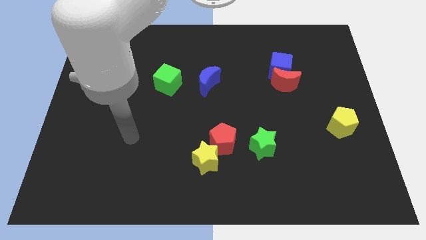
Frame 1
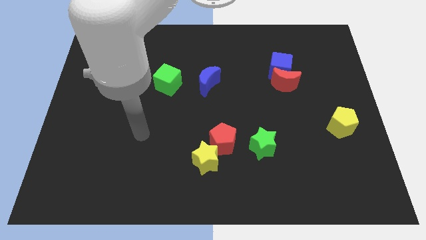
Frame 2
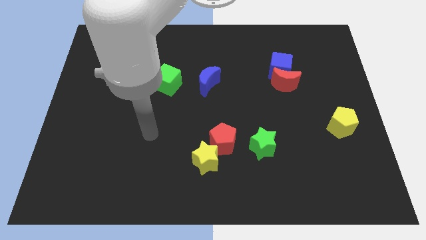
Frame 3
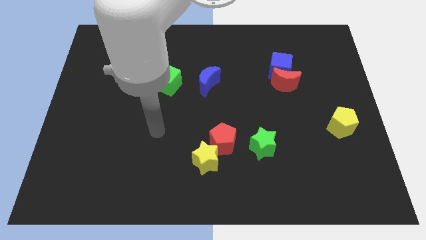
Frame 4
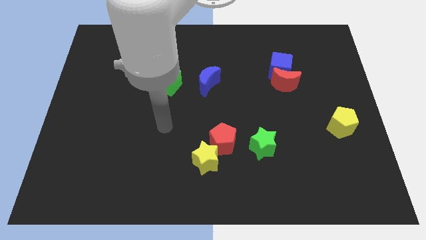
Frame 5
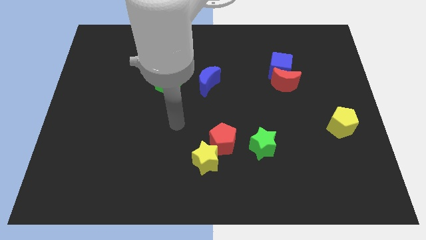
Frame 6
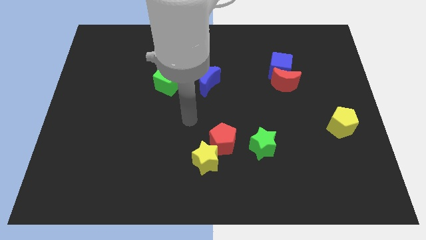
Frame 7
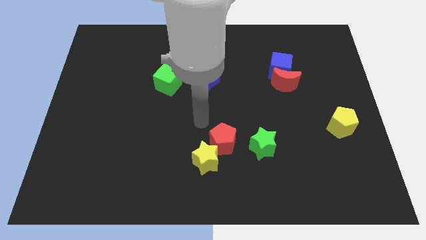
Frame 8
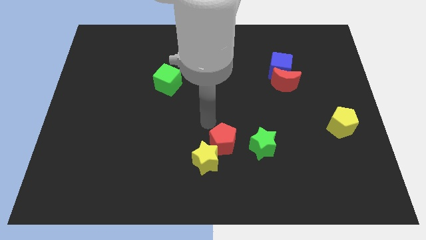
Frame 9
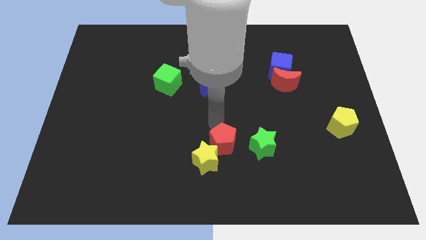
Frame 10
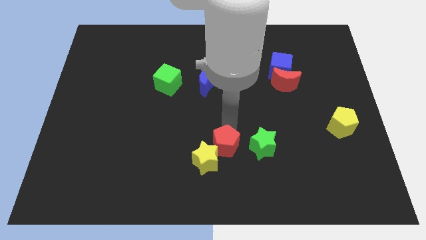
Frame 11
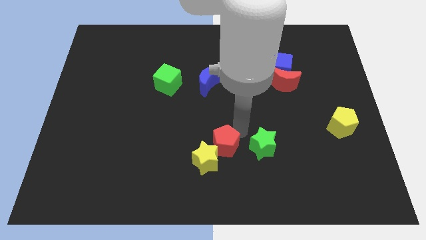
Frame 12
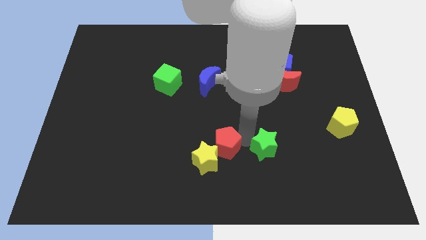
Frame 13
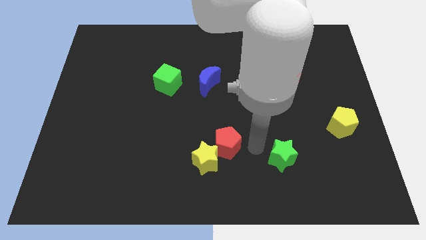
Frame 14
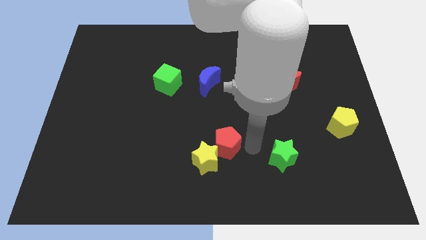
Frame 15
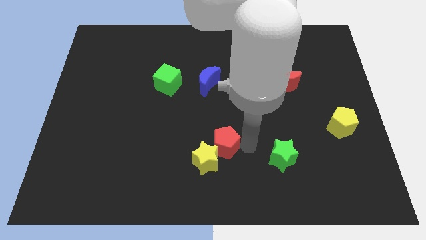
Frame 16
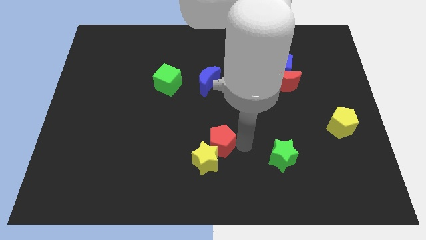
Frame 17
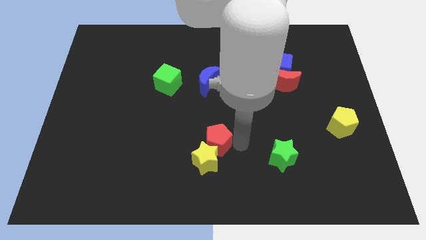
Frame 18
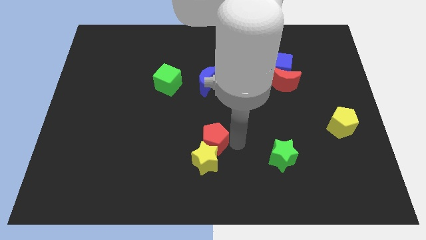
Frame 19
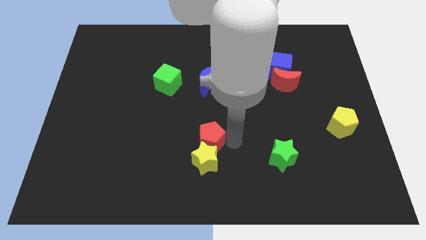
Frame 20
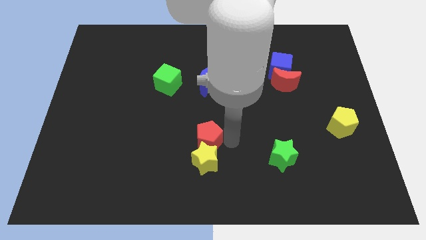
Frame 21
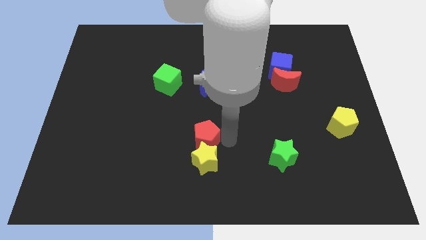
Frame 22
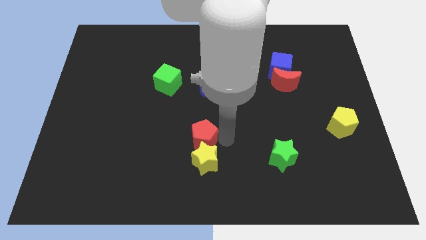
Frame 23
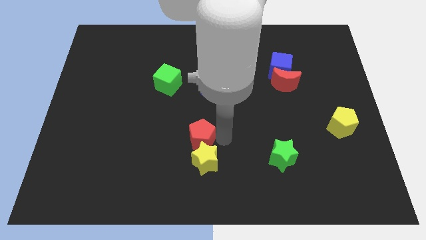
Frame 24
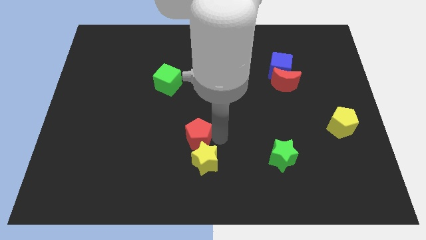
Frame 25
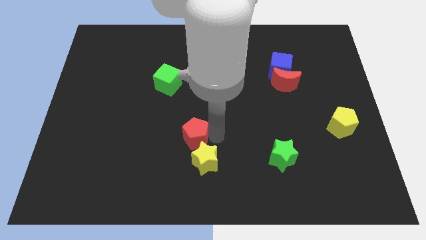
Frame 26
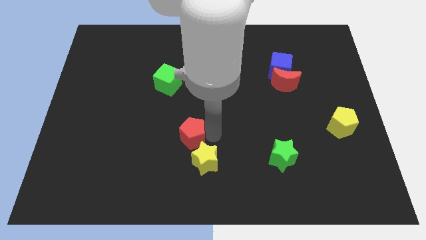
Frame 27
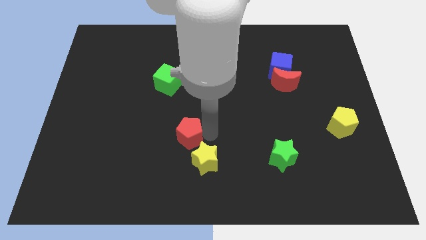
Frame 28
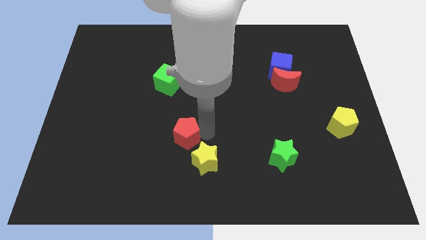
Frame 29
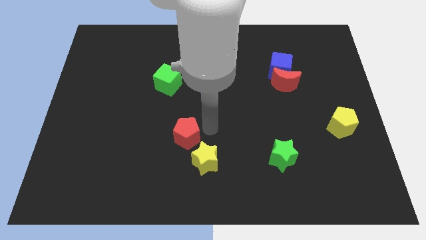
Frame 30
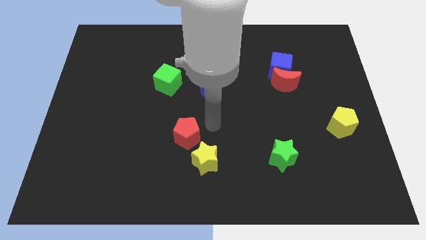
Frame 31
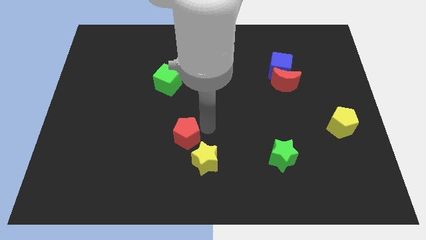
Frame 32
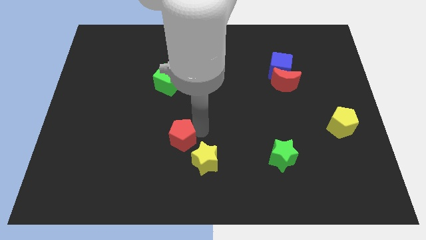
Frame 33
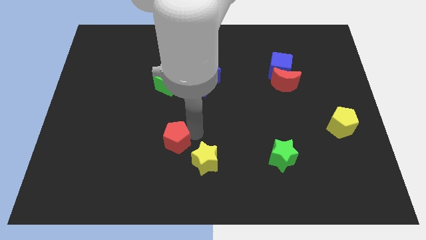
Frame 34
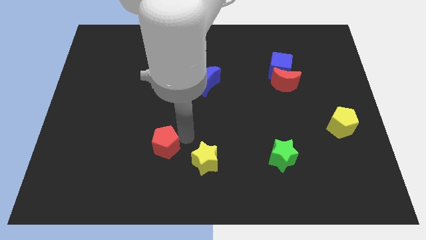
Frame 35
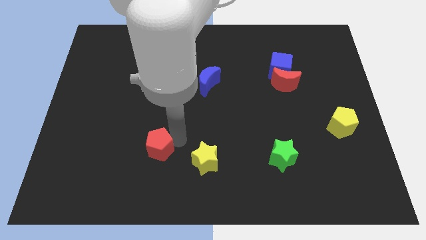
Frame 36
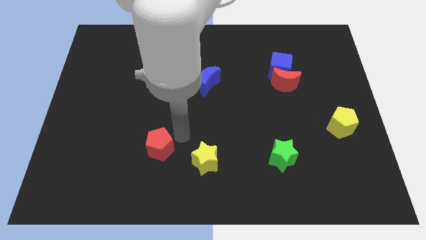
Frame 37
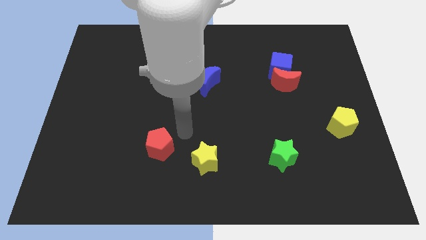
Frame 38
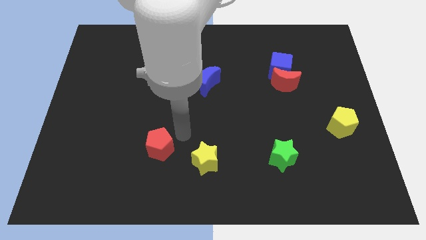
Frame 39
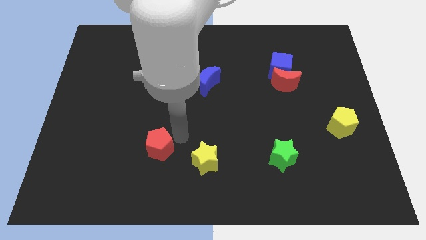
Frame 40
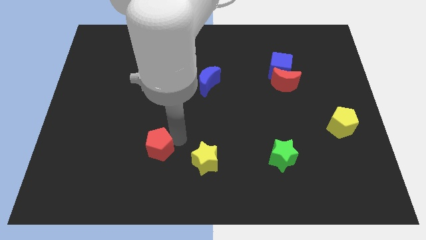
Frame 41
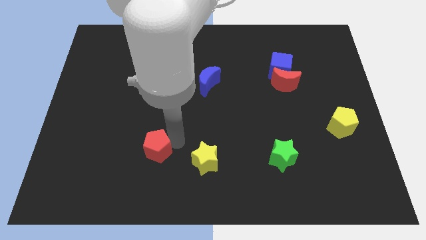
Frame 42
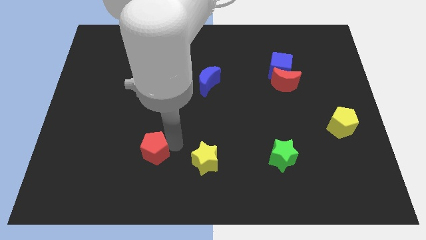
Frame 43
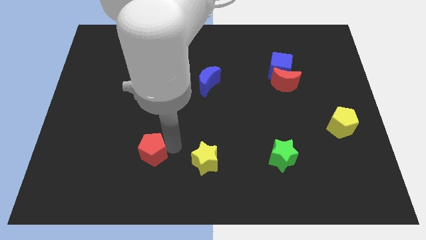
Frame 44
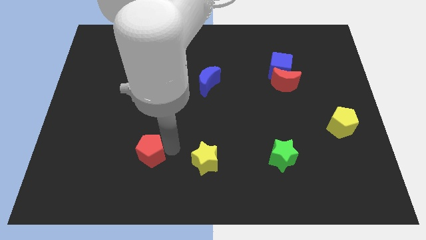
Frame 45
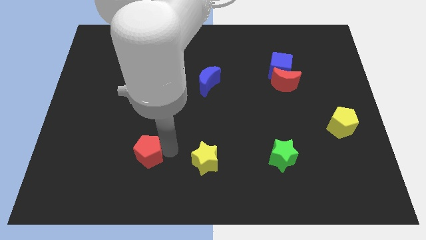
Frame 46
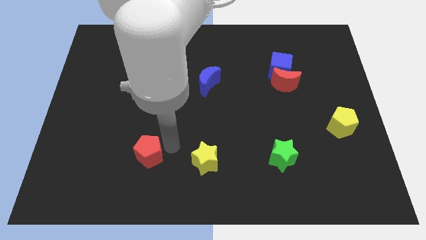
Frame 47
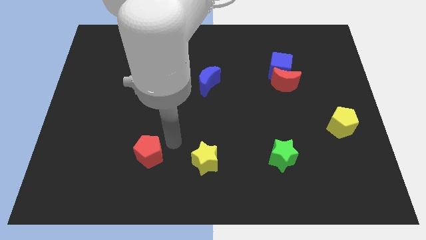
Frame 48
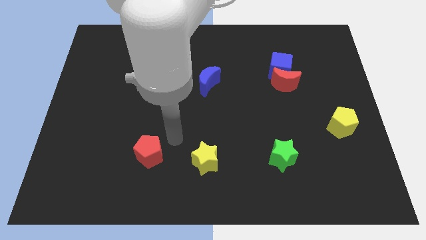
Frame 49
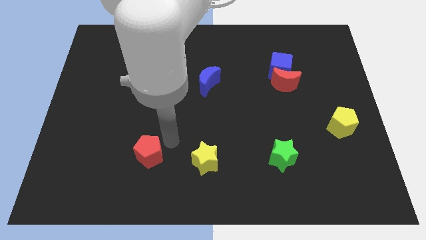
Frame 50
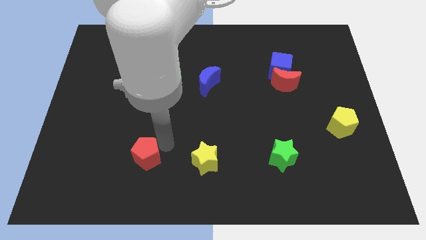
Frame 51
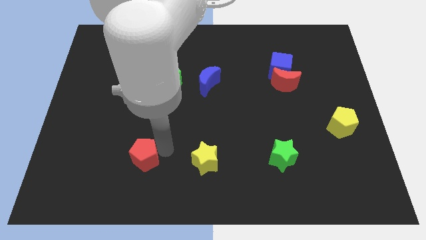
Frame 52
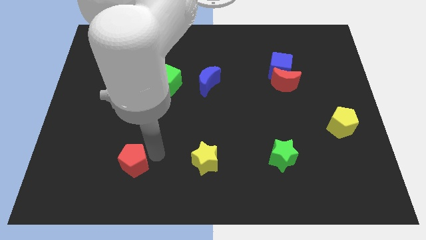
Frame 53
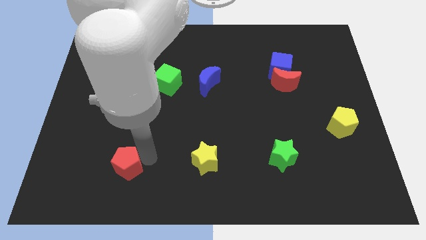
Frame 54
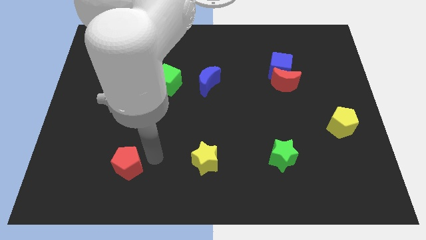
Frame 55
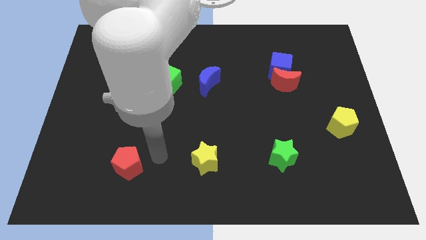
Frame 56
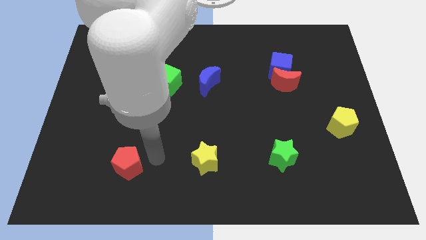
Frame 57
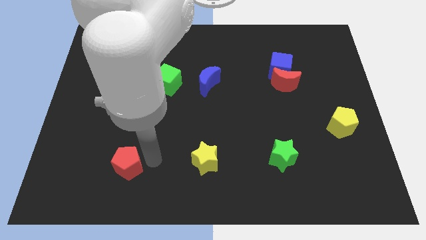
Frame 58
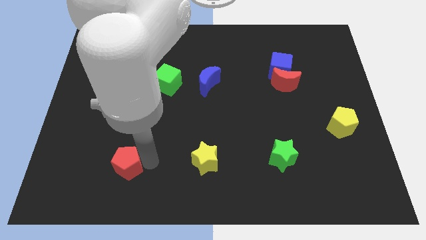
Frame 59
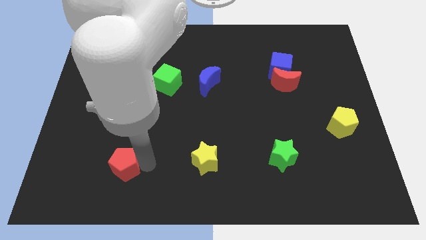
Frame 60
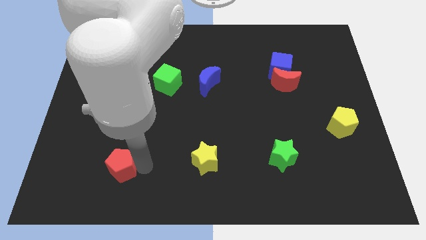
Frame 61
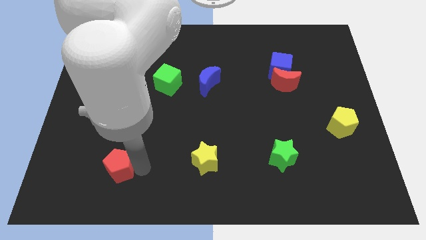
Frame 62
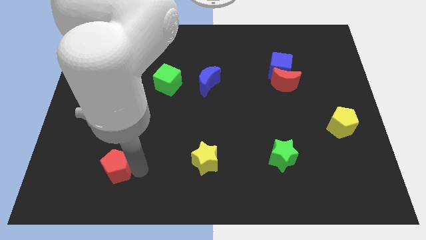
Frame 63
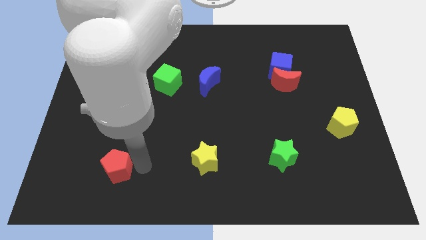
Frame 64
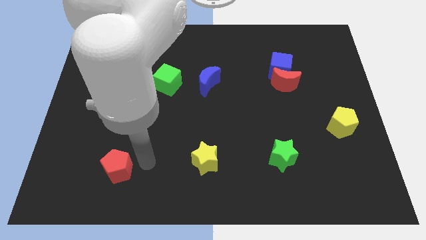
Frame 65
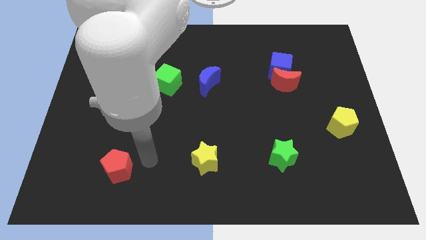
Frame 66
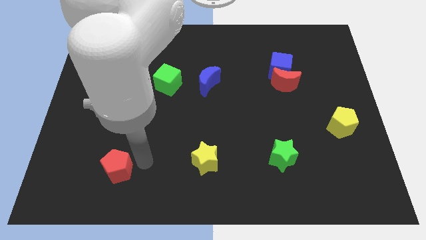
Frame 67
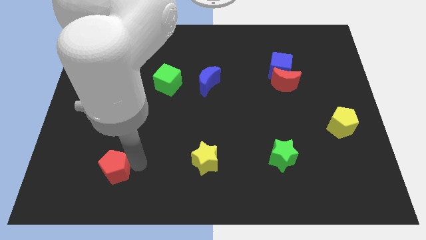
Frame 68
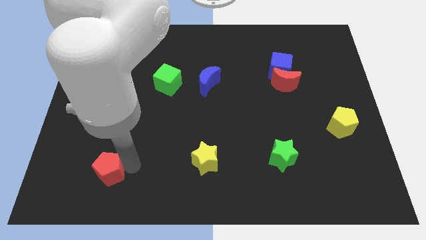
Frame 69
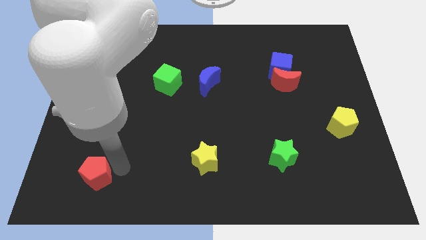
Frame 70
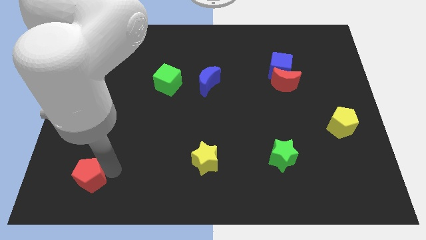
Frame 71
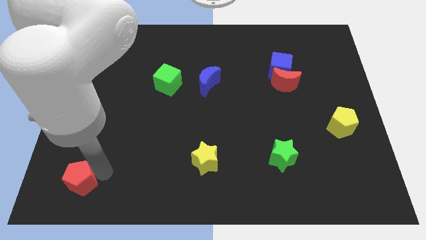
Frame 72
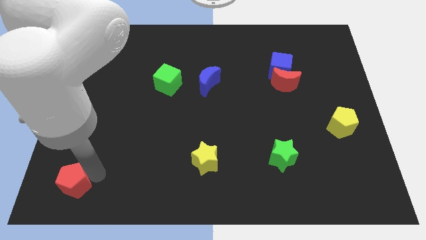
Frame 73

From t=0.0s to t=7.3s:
push the red pentagon to the lower left corner
